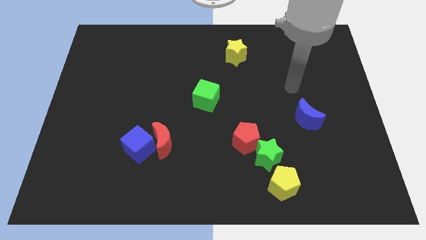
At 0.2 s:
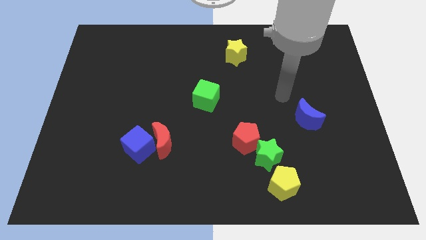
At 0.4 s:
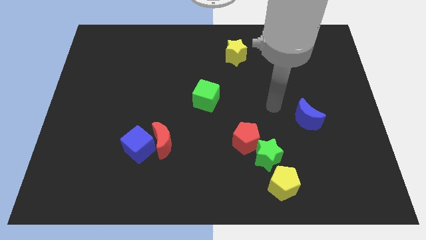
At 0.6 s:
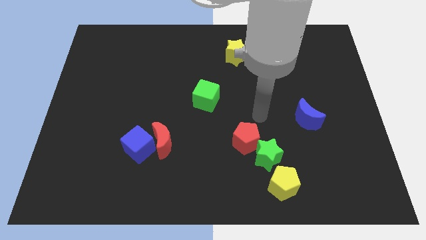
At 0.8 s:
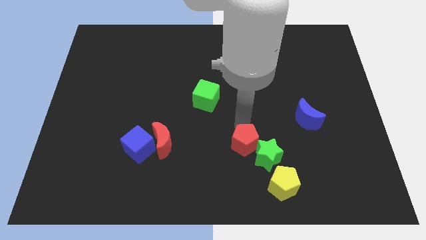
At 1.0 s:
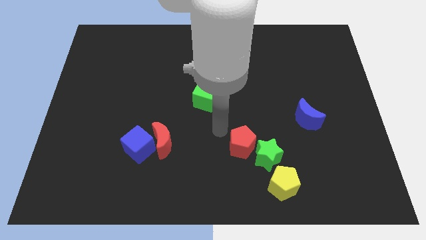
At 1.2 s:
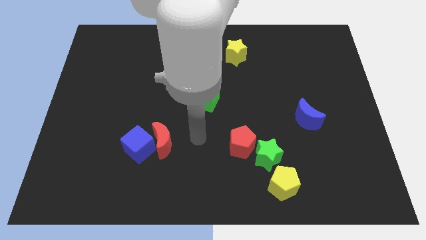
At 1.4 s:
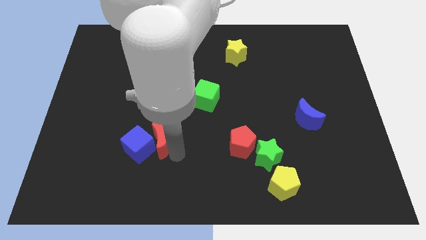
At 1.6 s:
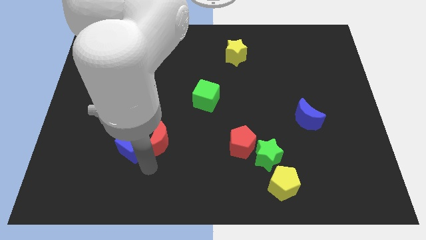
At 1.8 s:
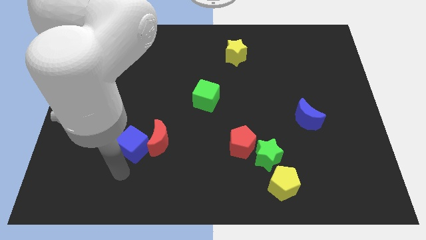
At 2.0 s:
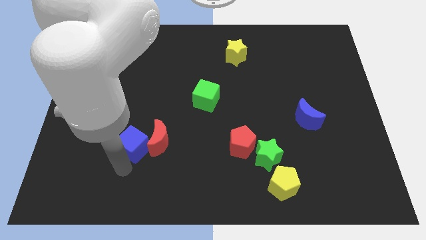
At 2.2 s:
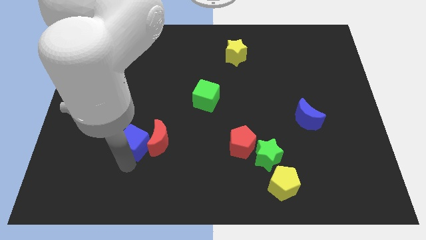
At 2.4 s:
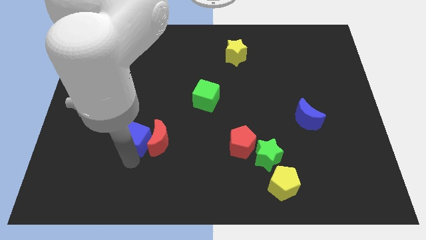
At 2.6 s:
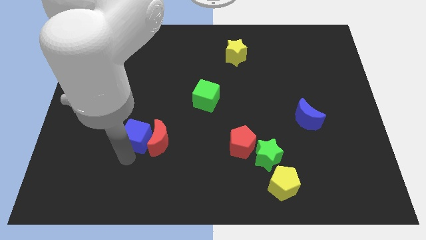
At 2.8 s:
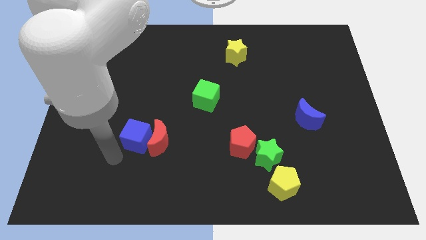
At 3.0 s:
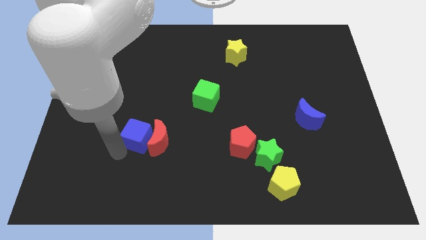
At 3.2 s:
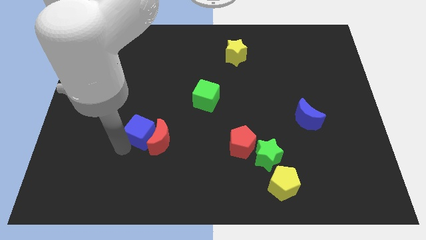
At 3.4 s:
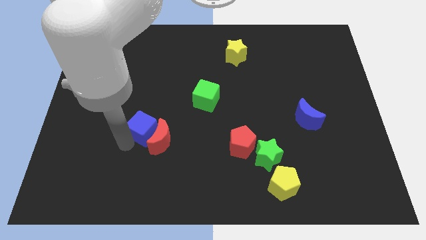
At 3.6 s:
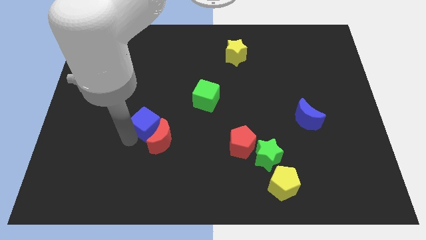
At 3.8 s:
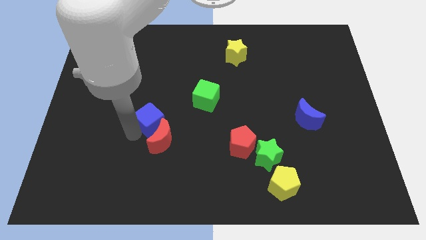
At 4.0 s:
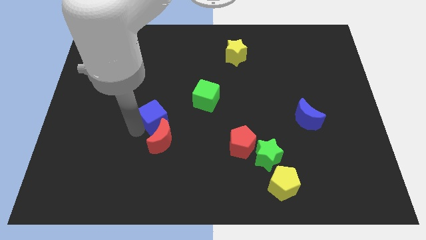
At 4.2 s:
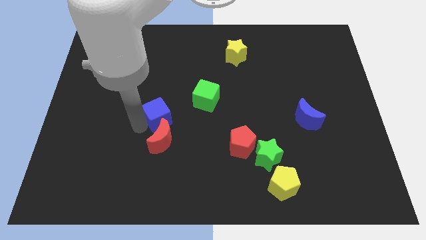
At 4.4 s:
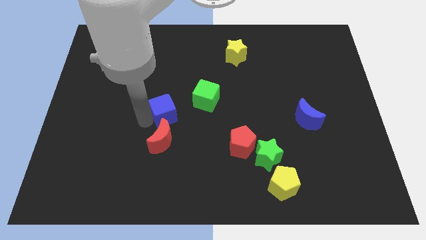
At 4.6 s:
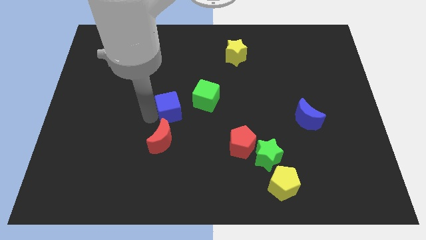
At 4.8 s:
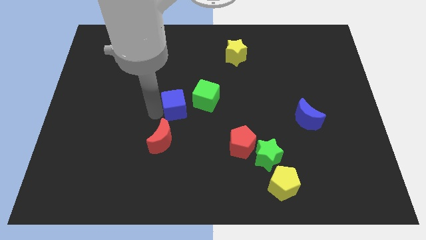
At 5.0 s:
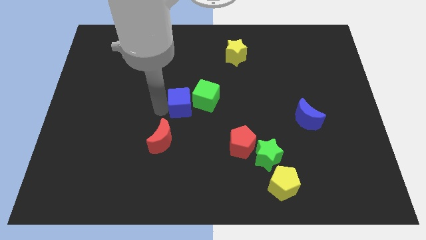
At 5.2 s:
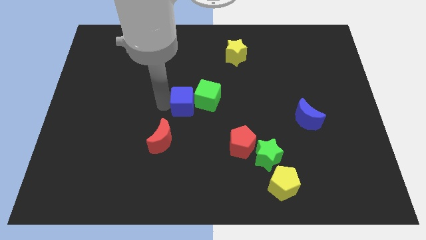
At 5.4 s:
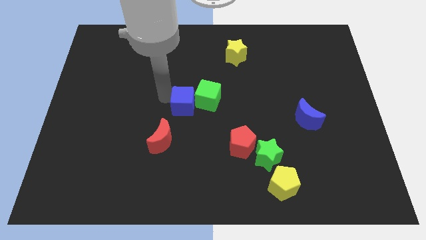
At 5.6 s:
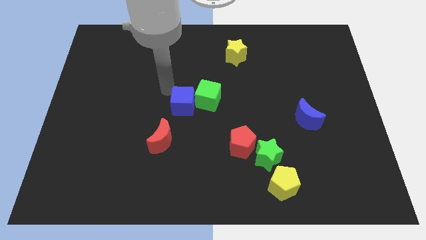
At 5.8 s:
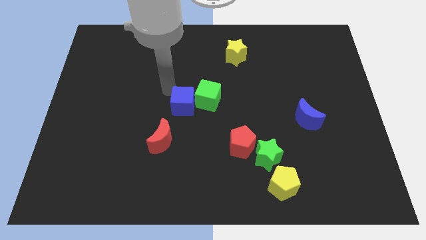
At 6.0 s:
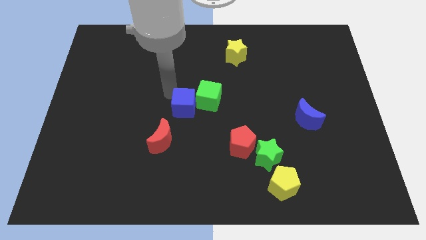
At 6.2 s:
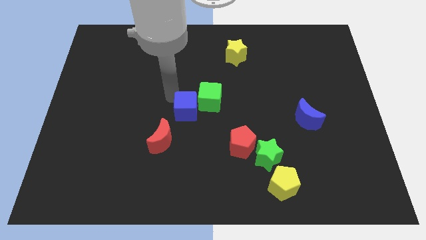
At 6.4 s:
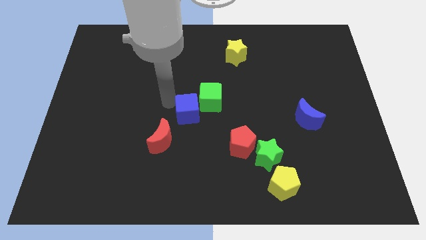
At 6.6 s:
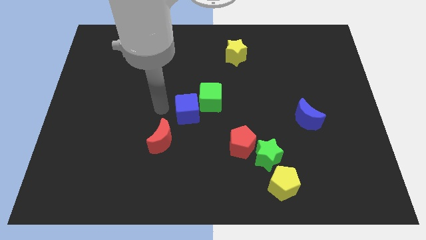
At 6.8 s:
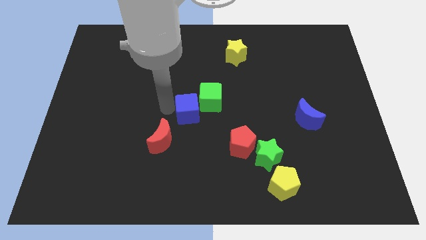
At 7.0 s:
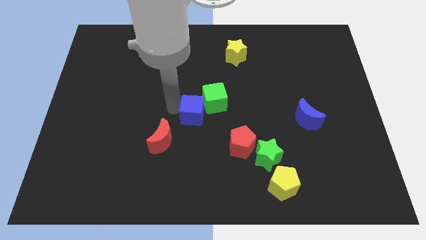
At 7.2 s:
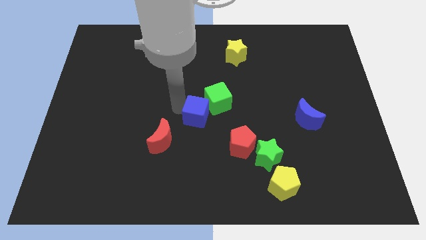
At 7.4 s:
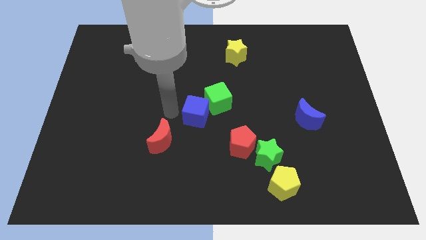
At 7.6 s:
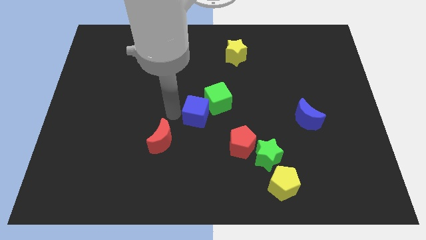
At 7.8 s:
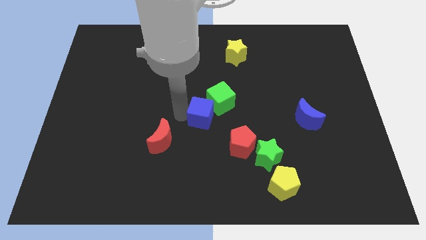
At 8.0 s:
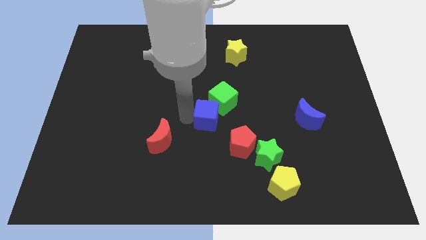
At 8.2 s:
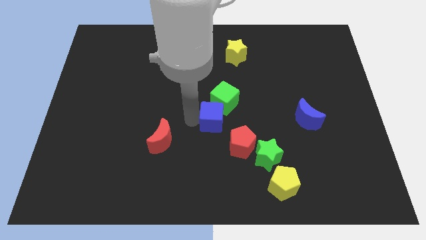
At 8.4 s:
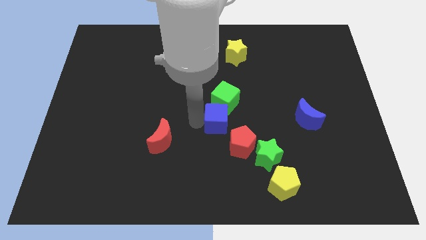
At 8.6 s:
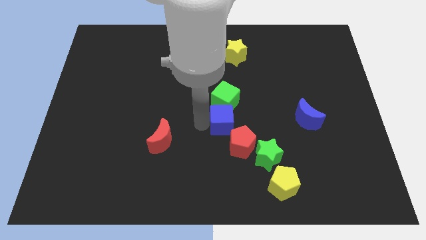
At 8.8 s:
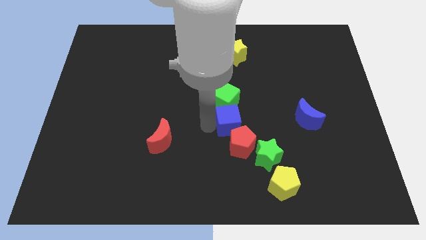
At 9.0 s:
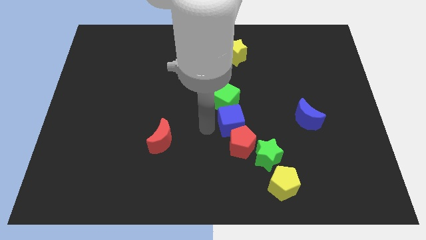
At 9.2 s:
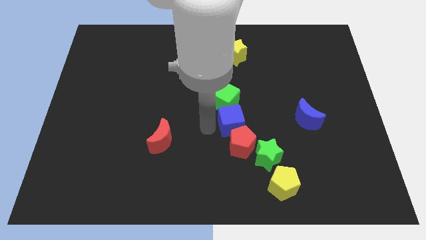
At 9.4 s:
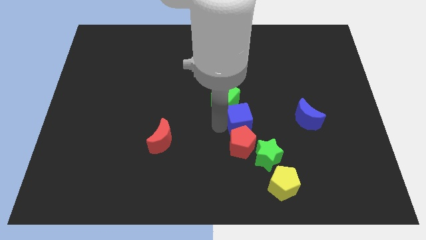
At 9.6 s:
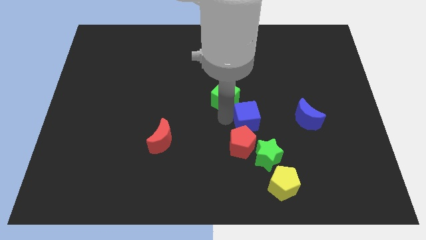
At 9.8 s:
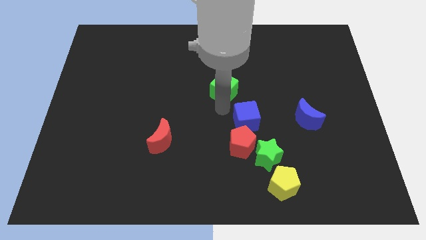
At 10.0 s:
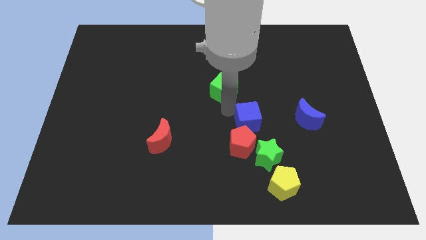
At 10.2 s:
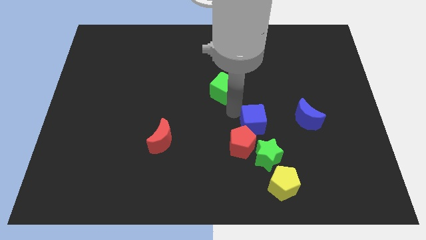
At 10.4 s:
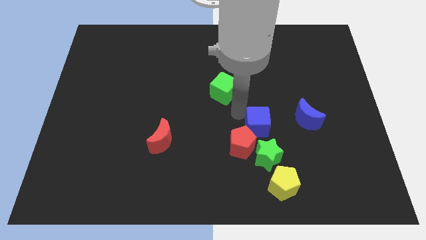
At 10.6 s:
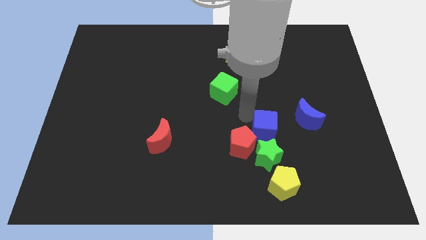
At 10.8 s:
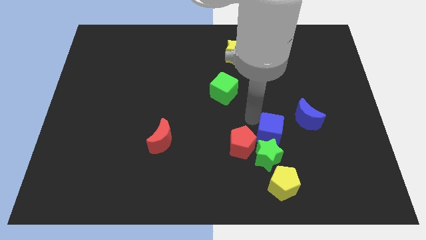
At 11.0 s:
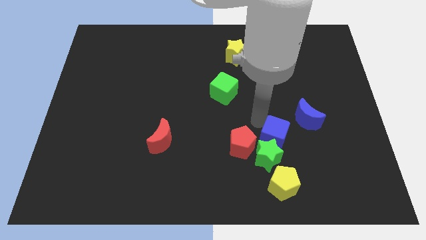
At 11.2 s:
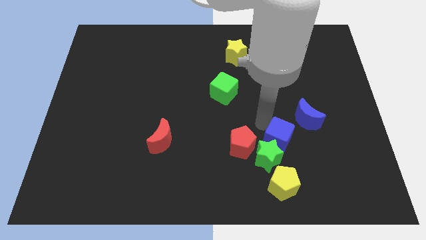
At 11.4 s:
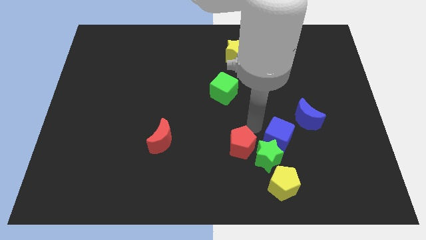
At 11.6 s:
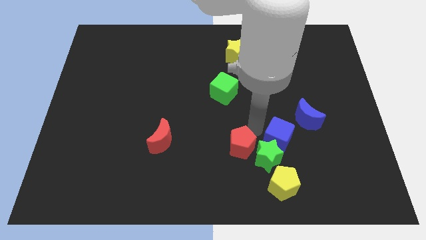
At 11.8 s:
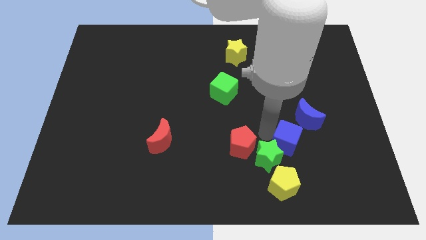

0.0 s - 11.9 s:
slide the blue cube to the right side of the green star

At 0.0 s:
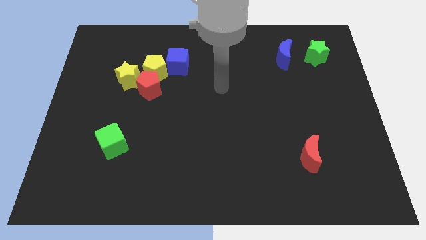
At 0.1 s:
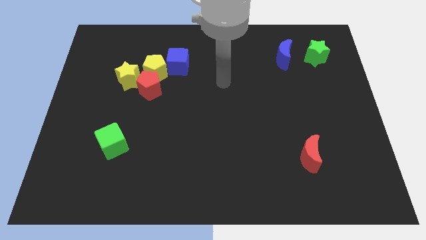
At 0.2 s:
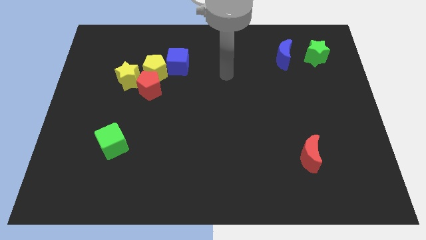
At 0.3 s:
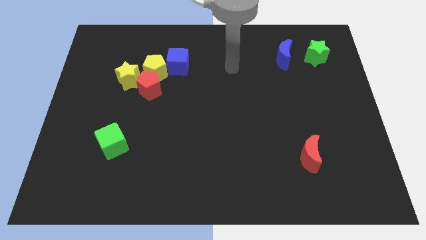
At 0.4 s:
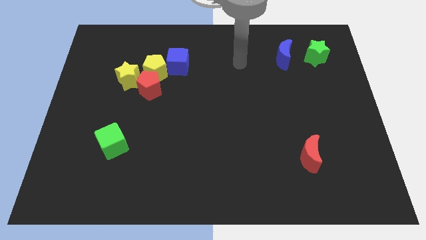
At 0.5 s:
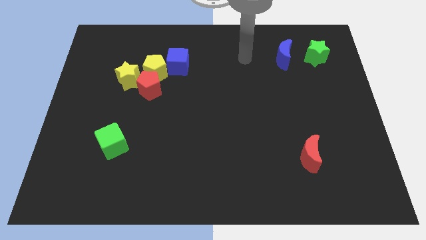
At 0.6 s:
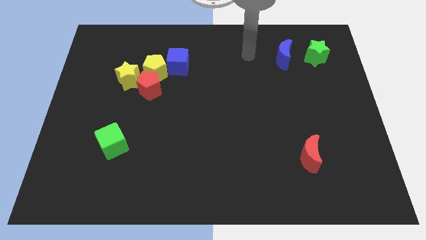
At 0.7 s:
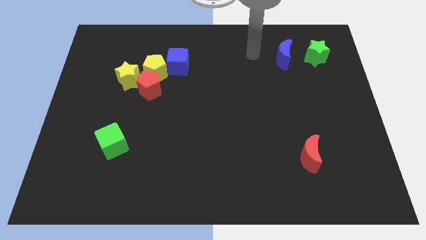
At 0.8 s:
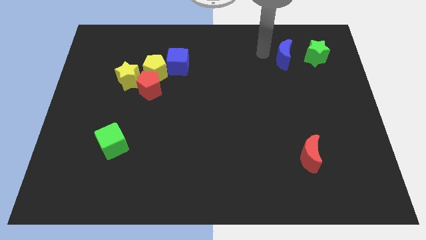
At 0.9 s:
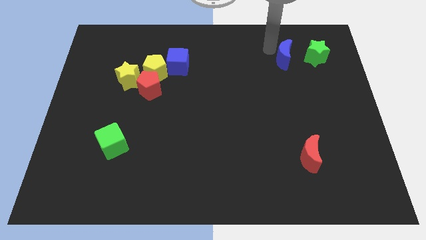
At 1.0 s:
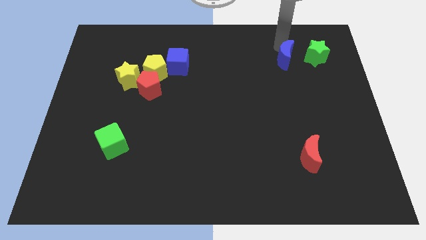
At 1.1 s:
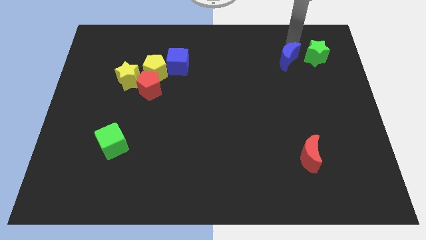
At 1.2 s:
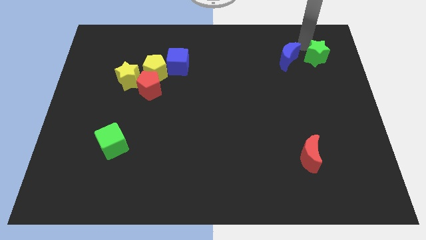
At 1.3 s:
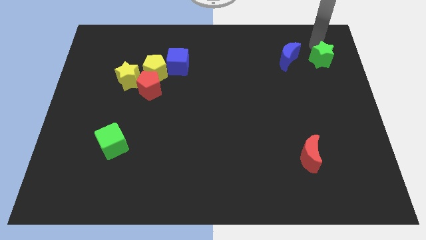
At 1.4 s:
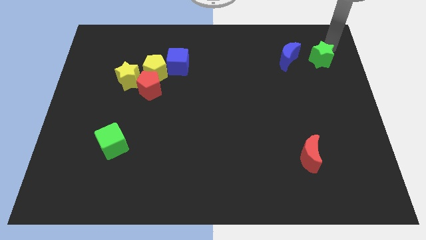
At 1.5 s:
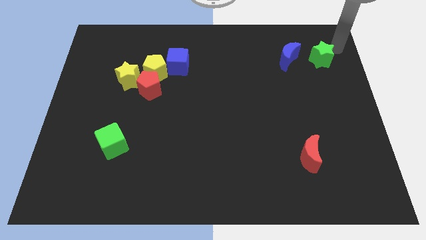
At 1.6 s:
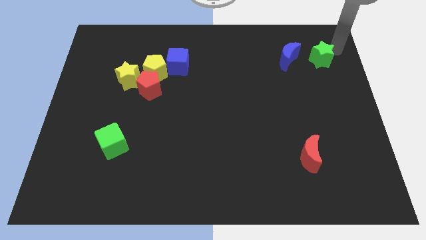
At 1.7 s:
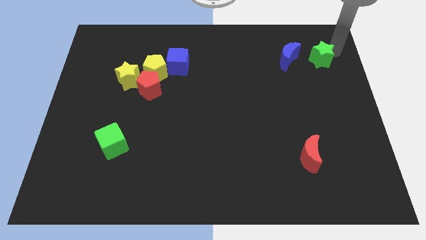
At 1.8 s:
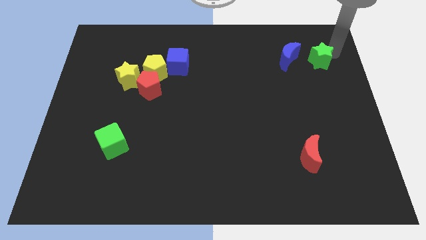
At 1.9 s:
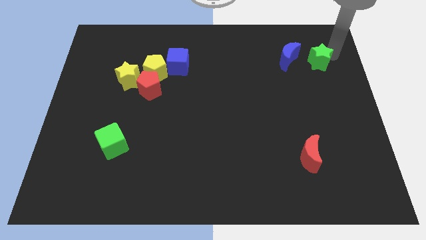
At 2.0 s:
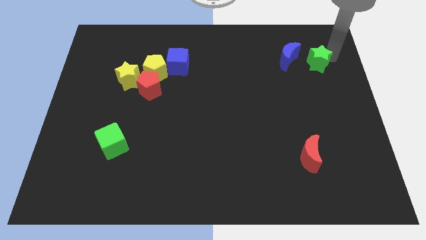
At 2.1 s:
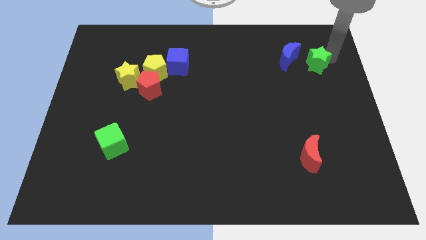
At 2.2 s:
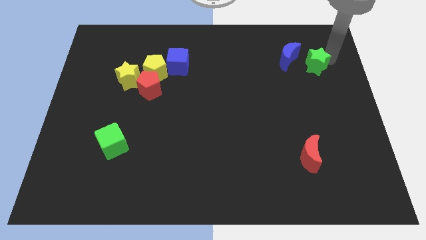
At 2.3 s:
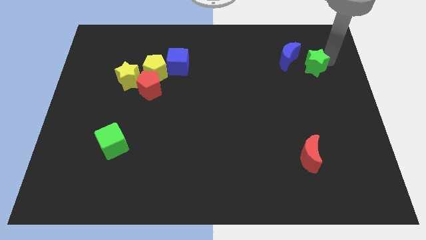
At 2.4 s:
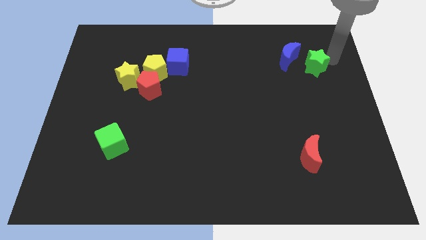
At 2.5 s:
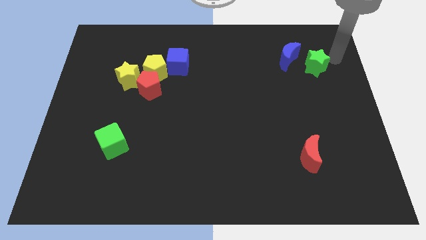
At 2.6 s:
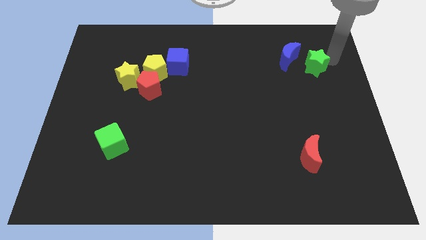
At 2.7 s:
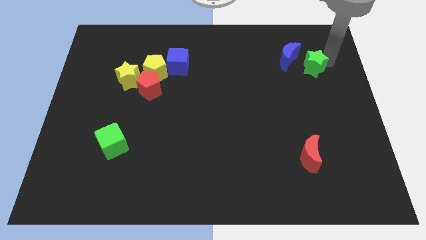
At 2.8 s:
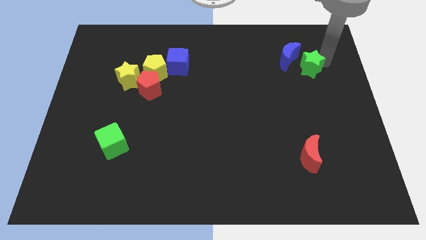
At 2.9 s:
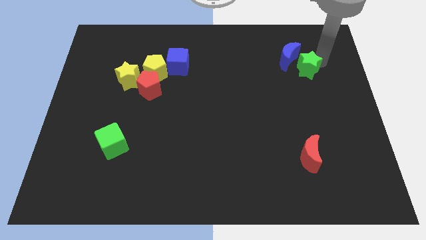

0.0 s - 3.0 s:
slide the green star to the bottom of the blue moon
